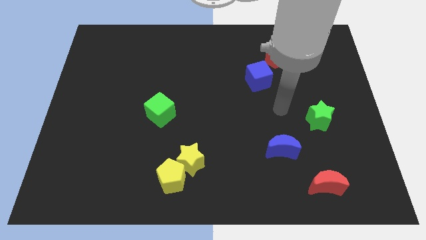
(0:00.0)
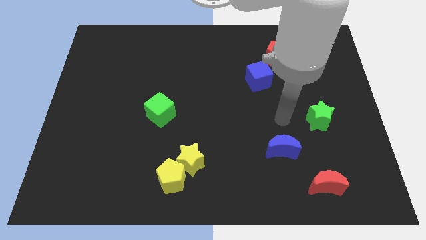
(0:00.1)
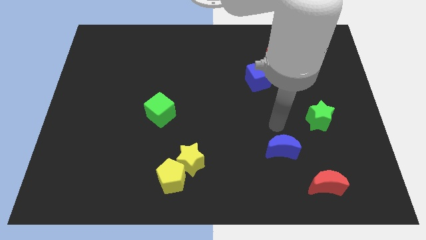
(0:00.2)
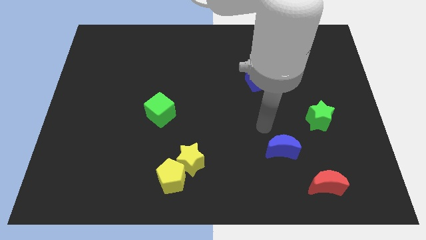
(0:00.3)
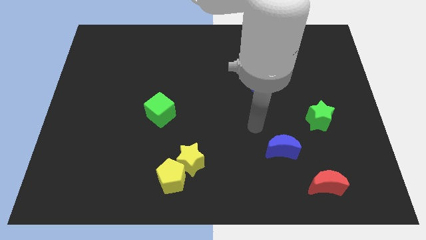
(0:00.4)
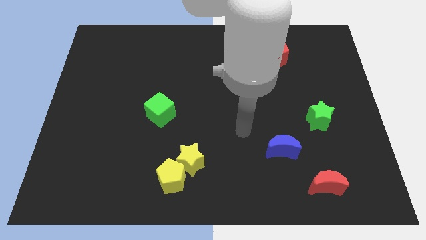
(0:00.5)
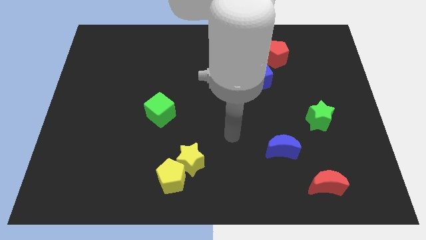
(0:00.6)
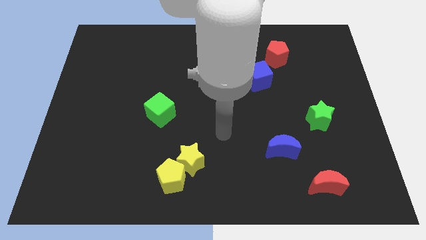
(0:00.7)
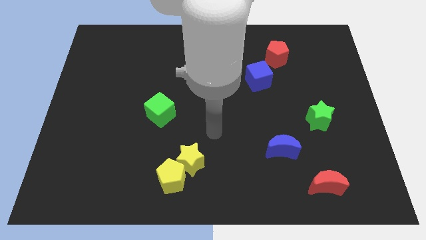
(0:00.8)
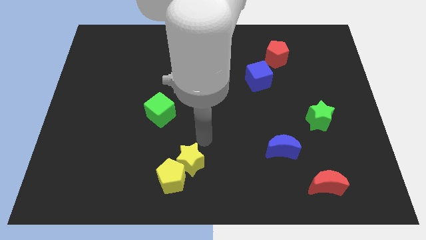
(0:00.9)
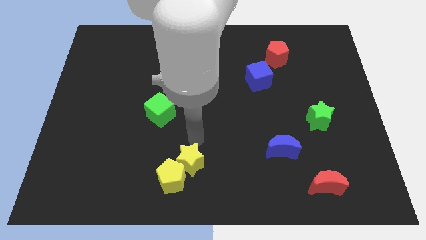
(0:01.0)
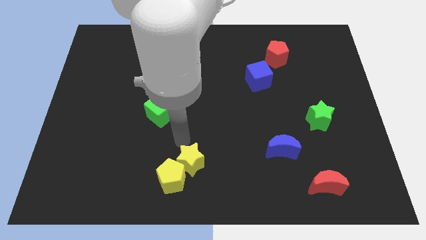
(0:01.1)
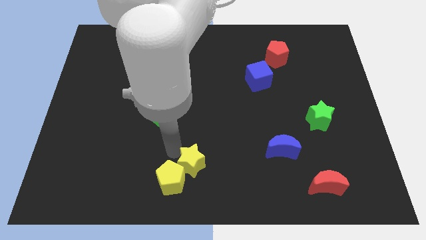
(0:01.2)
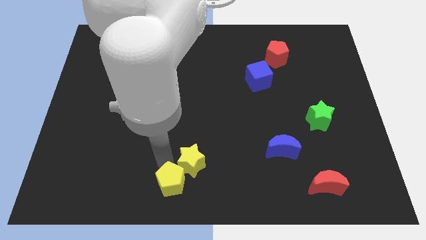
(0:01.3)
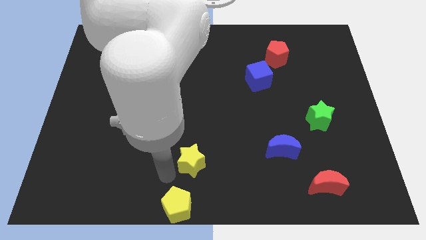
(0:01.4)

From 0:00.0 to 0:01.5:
separate the yellow star from the yellow pentagon

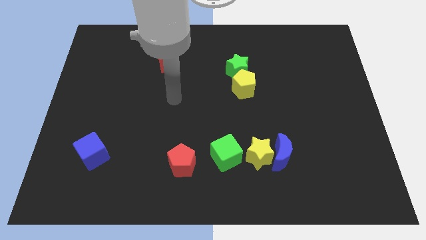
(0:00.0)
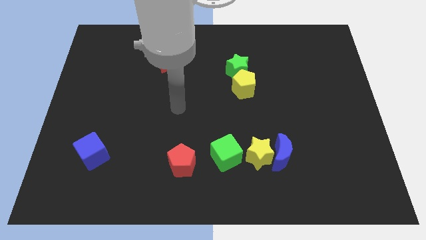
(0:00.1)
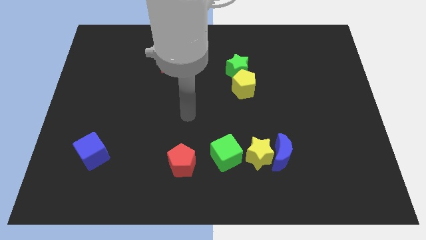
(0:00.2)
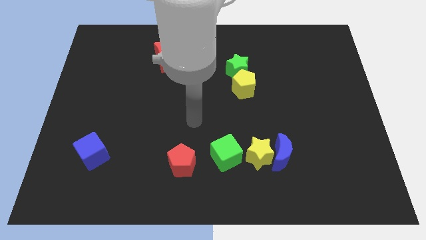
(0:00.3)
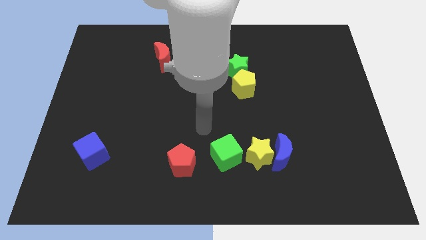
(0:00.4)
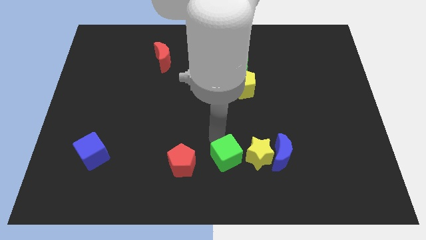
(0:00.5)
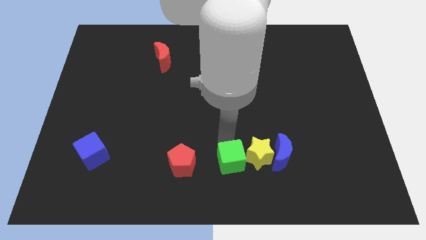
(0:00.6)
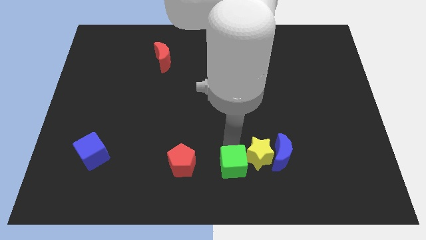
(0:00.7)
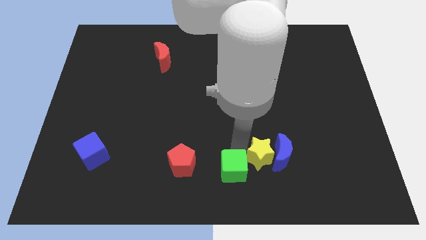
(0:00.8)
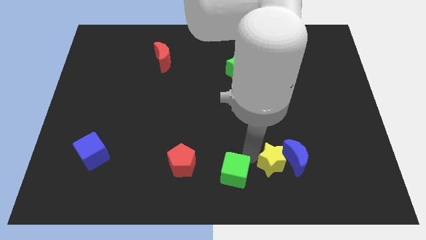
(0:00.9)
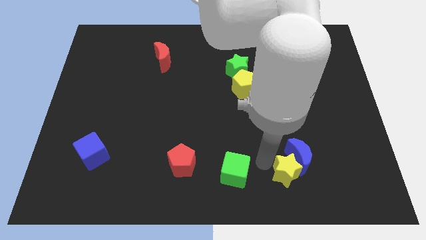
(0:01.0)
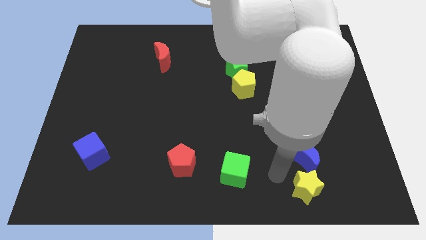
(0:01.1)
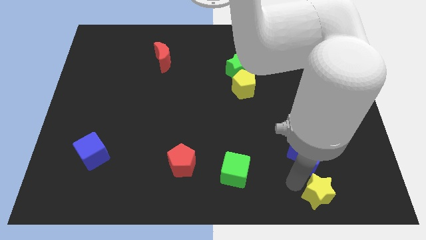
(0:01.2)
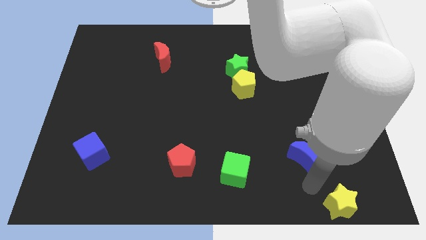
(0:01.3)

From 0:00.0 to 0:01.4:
pull the blue moon apart from the yellow star

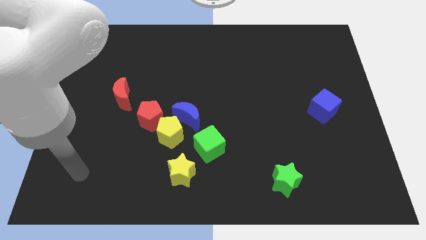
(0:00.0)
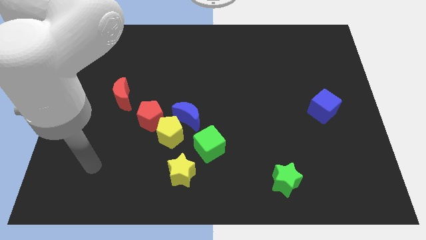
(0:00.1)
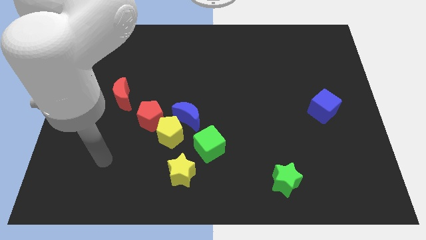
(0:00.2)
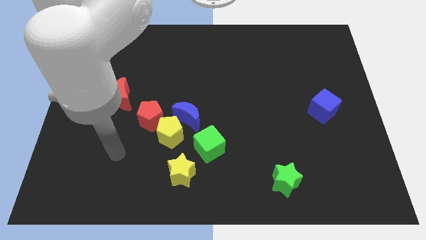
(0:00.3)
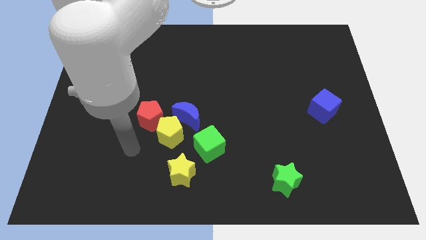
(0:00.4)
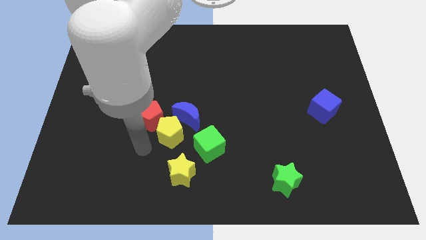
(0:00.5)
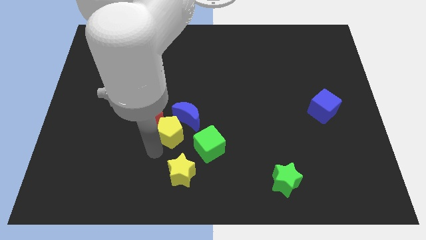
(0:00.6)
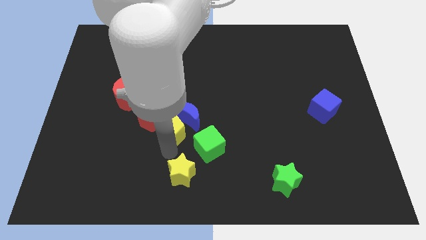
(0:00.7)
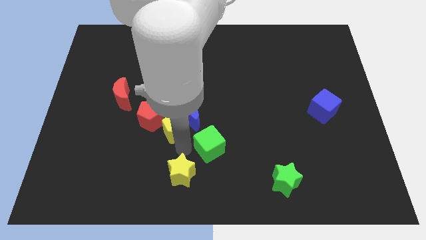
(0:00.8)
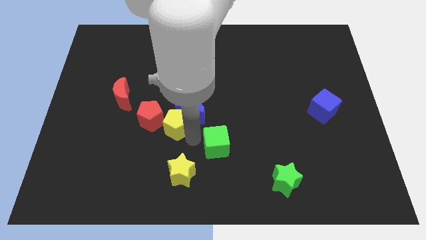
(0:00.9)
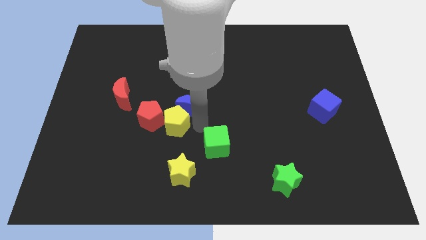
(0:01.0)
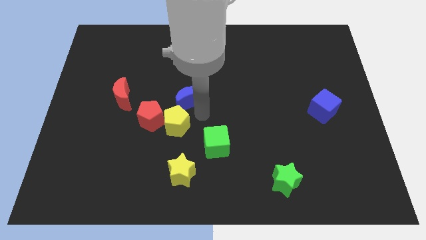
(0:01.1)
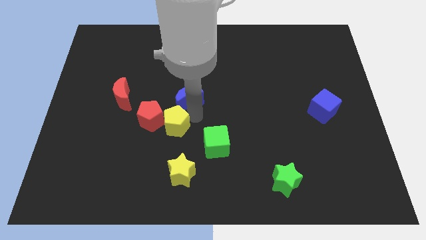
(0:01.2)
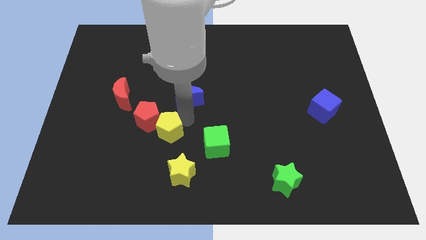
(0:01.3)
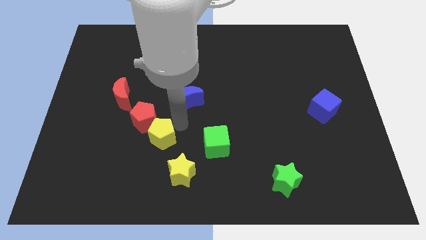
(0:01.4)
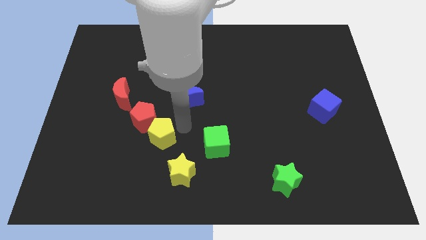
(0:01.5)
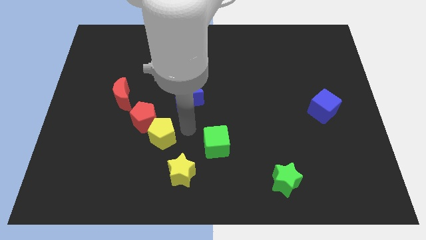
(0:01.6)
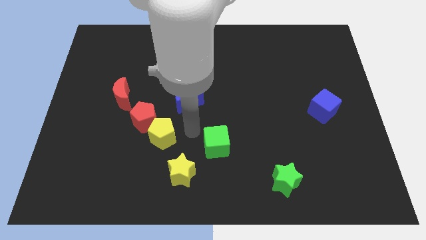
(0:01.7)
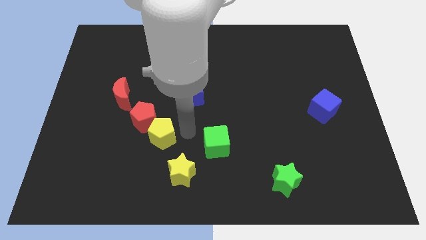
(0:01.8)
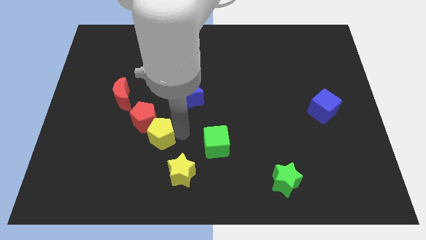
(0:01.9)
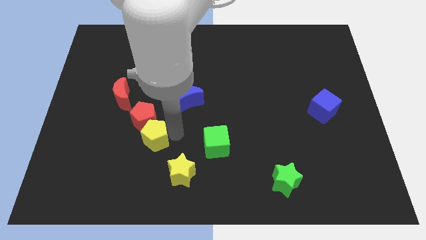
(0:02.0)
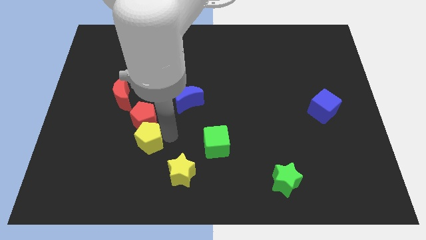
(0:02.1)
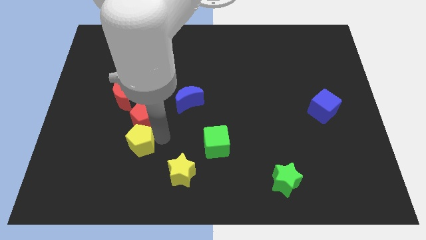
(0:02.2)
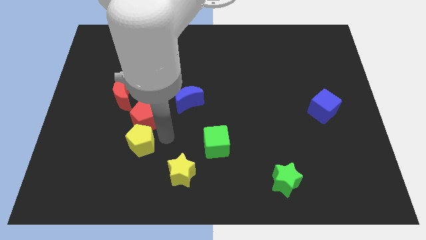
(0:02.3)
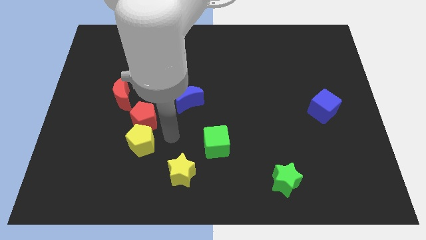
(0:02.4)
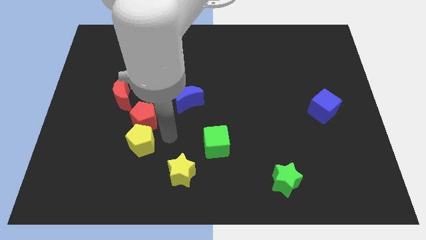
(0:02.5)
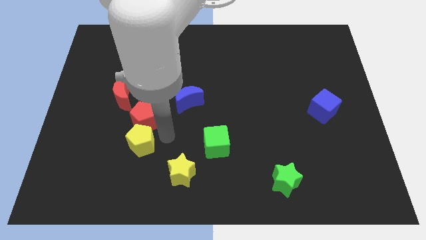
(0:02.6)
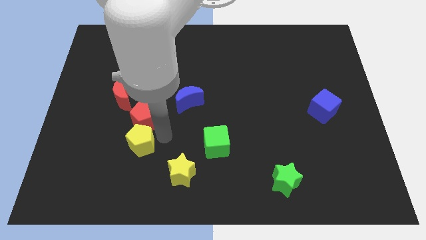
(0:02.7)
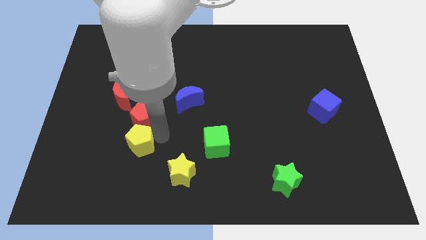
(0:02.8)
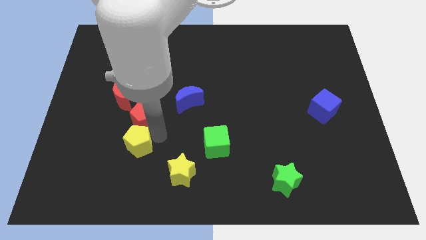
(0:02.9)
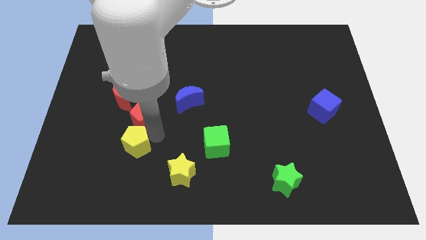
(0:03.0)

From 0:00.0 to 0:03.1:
move the yellow pentagon away from the group of blocks

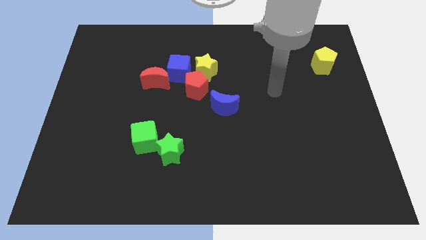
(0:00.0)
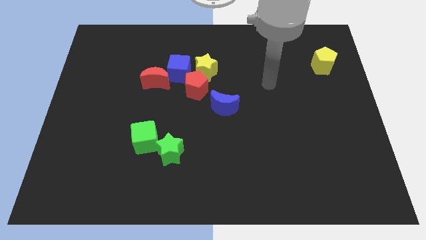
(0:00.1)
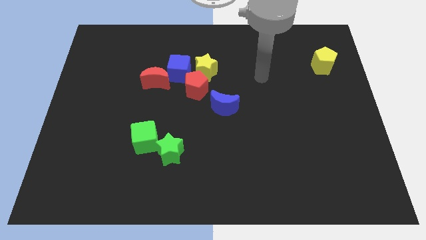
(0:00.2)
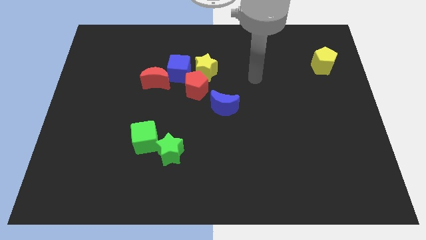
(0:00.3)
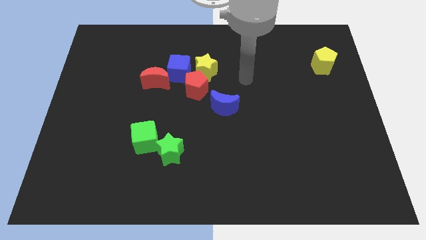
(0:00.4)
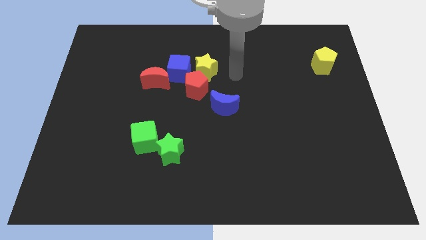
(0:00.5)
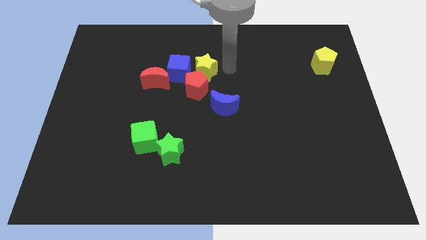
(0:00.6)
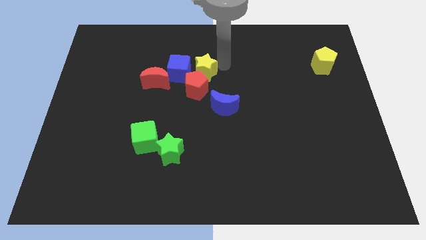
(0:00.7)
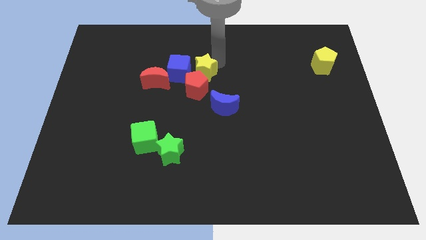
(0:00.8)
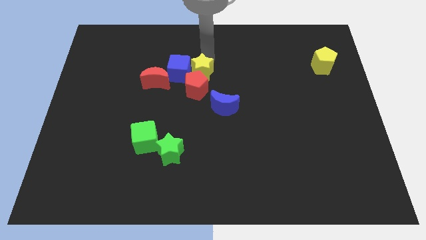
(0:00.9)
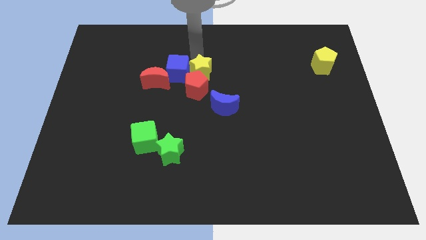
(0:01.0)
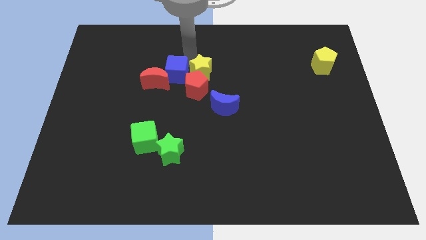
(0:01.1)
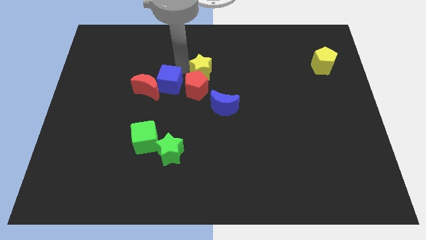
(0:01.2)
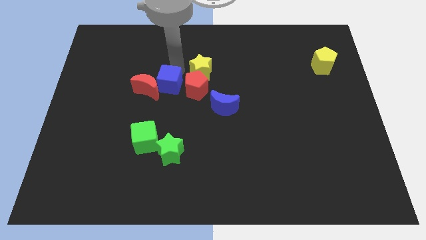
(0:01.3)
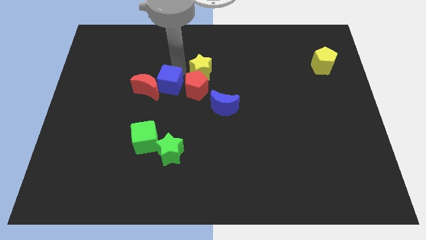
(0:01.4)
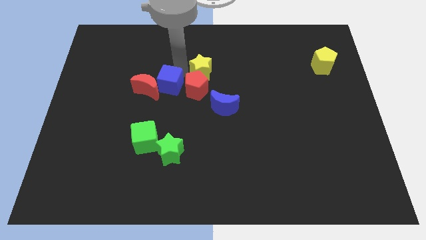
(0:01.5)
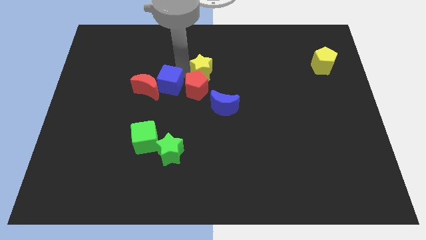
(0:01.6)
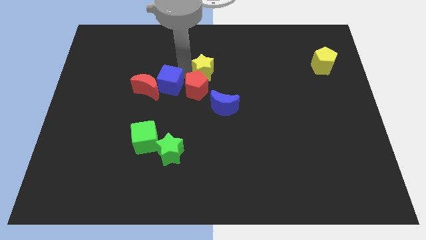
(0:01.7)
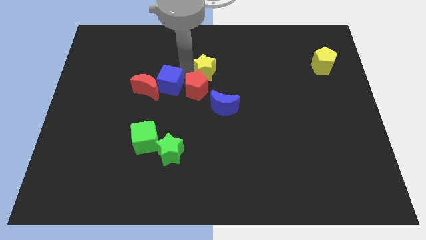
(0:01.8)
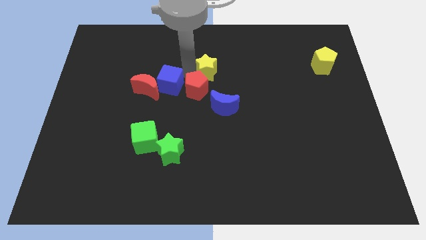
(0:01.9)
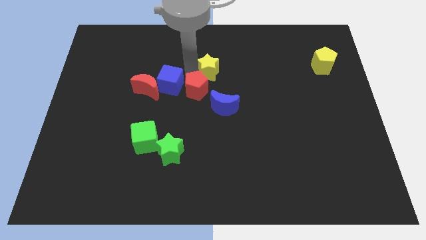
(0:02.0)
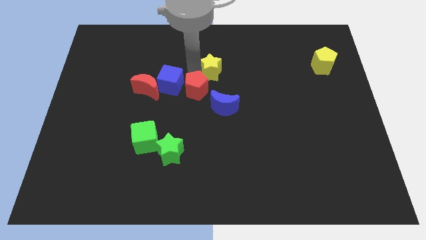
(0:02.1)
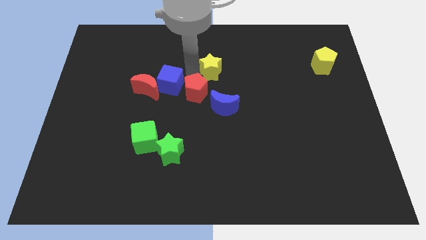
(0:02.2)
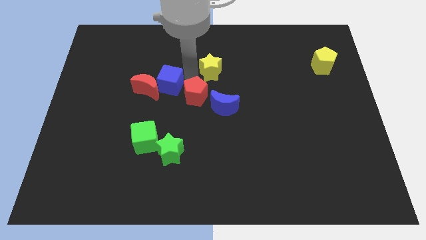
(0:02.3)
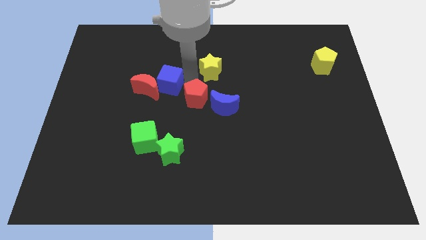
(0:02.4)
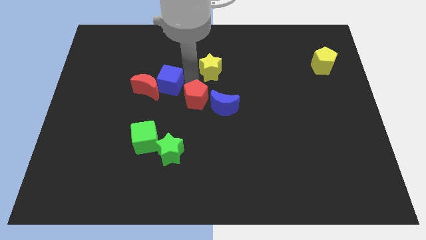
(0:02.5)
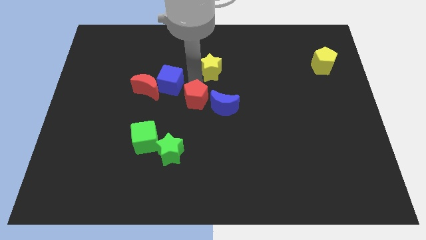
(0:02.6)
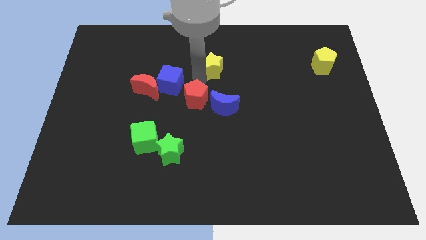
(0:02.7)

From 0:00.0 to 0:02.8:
separate the yellow star from the red pentagon and blue cube

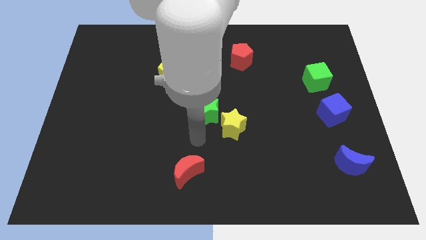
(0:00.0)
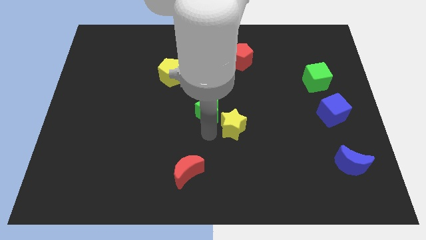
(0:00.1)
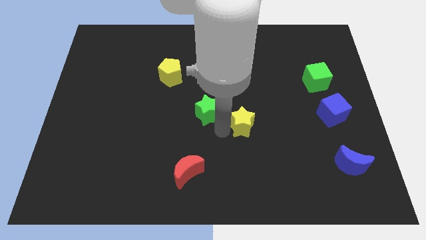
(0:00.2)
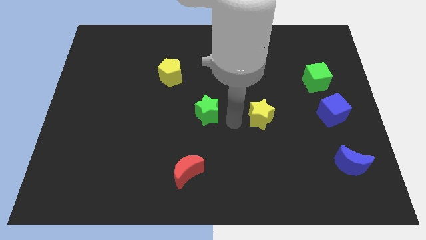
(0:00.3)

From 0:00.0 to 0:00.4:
pull the green star apart from the yellow star

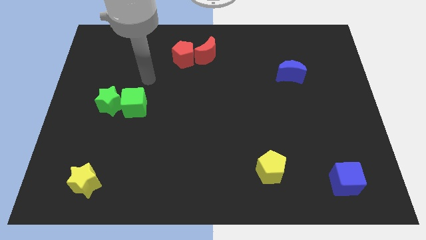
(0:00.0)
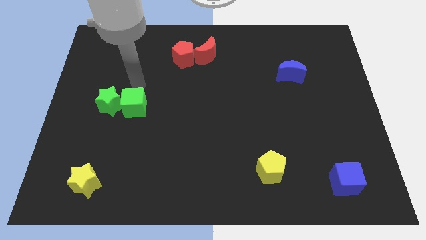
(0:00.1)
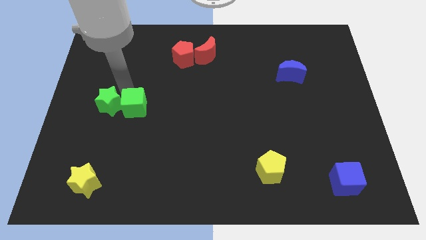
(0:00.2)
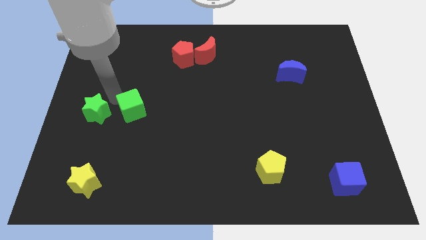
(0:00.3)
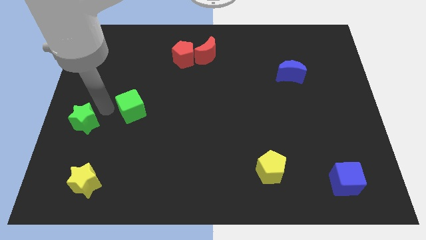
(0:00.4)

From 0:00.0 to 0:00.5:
move the green cube away from the green star
